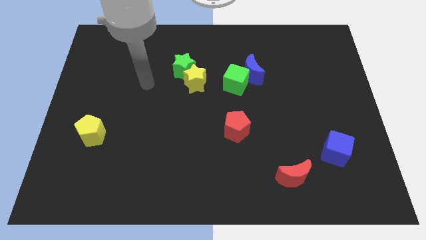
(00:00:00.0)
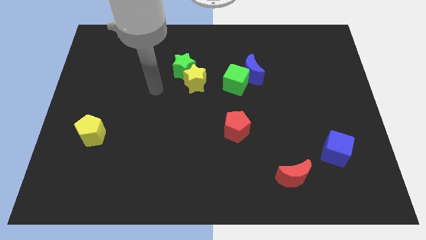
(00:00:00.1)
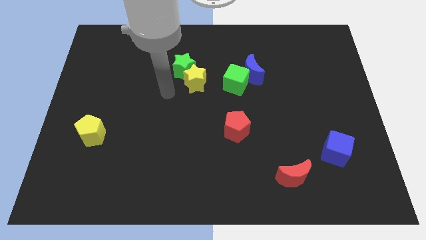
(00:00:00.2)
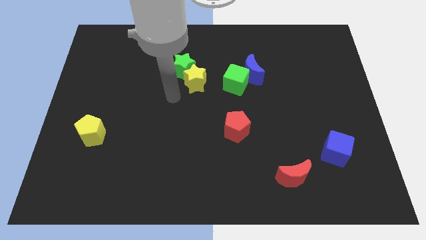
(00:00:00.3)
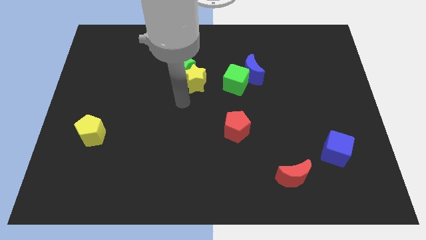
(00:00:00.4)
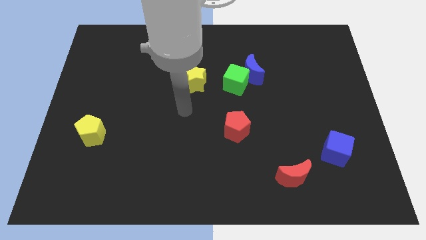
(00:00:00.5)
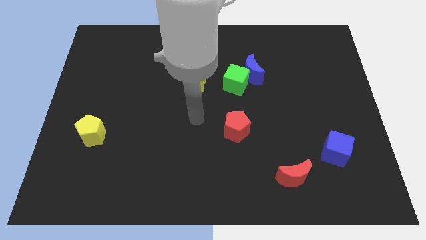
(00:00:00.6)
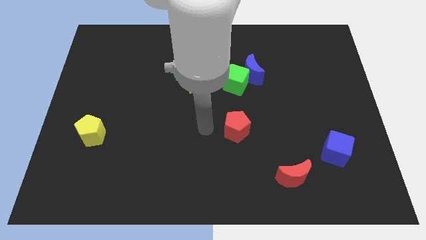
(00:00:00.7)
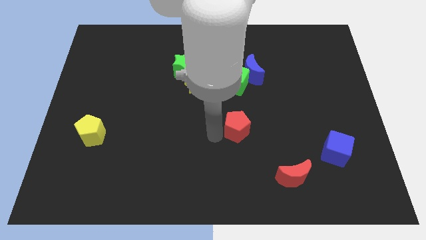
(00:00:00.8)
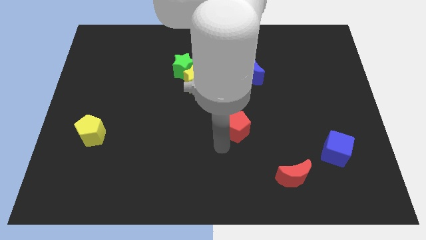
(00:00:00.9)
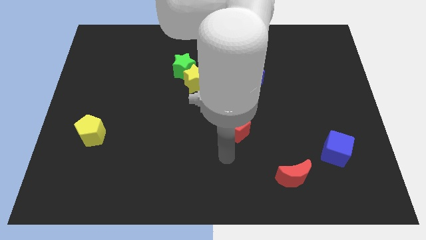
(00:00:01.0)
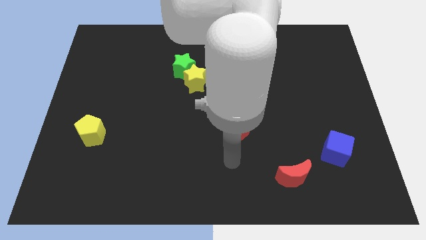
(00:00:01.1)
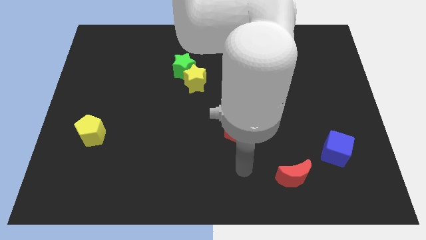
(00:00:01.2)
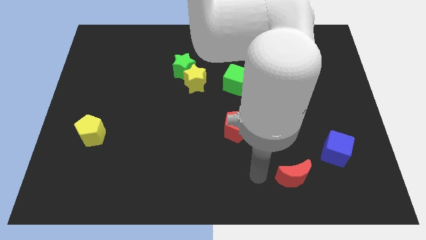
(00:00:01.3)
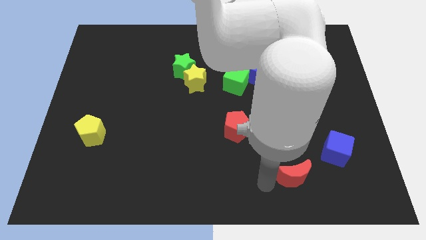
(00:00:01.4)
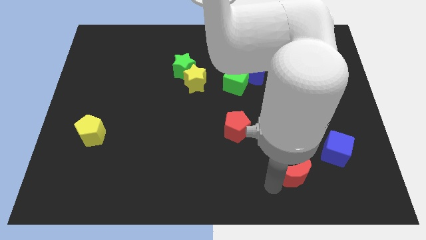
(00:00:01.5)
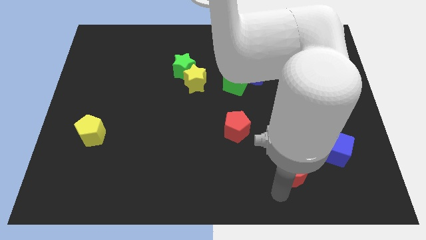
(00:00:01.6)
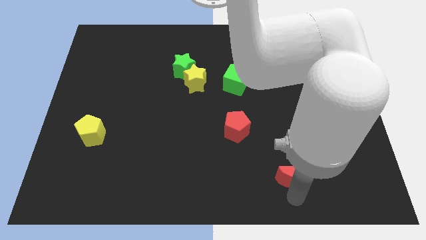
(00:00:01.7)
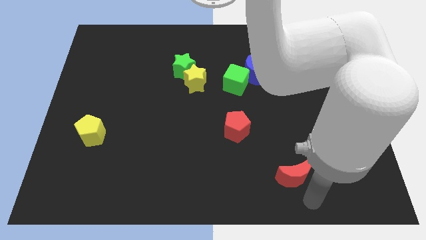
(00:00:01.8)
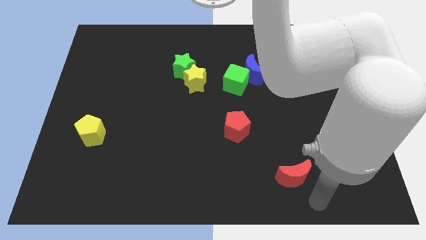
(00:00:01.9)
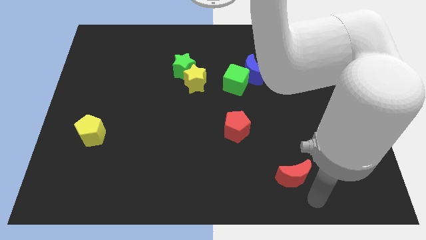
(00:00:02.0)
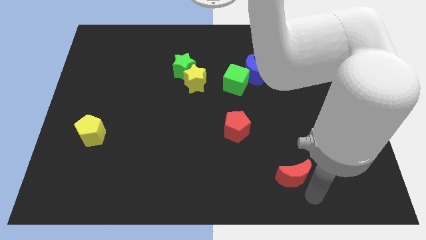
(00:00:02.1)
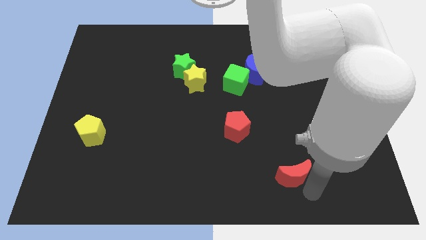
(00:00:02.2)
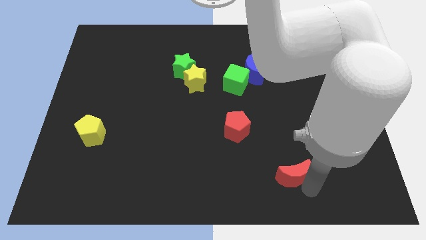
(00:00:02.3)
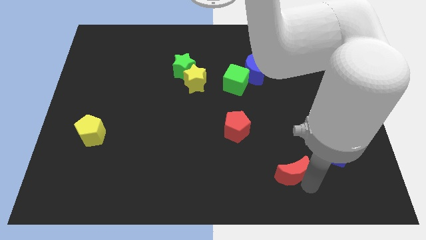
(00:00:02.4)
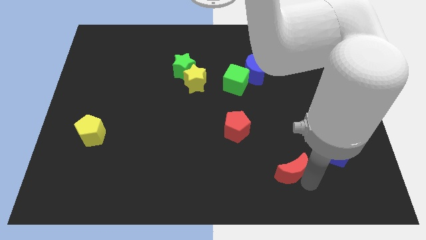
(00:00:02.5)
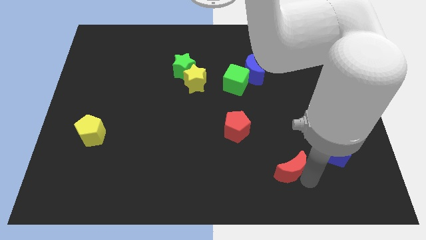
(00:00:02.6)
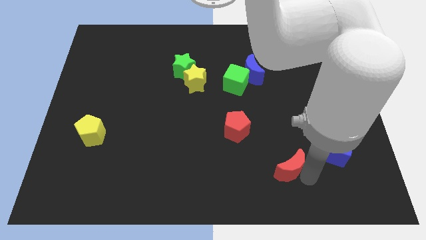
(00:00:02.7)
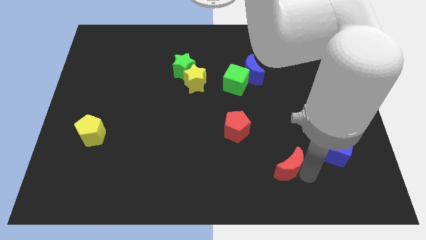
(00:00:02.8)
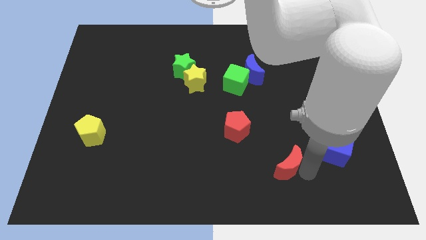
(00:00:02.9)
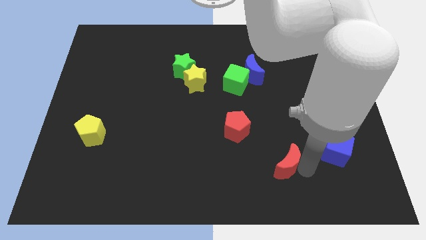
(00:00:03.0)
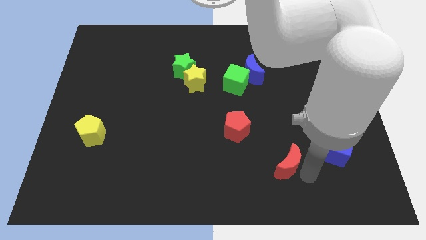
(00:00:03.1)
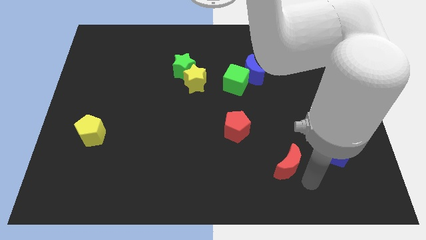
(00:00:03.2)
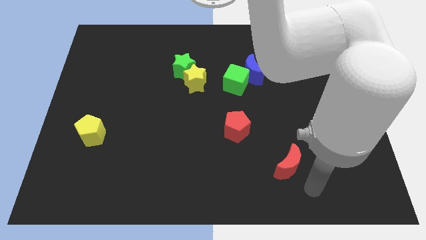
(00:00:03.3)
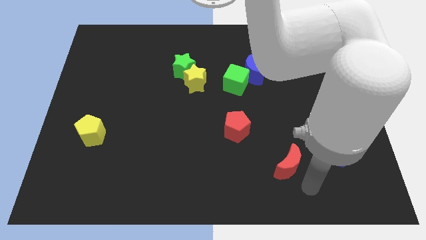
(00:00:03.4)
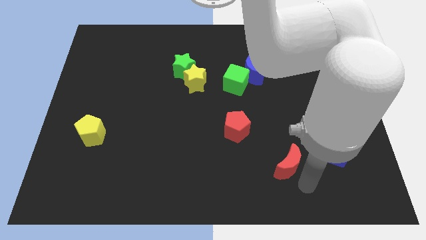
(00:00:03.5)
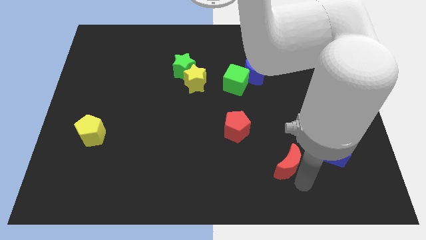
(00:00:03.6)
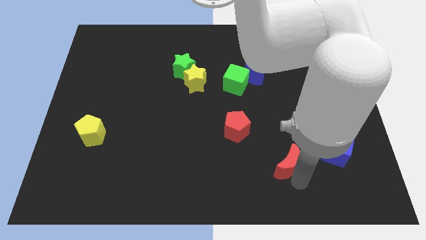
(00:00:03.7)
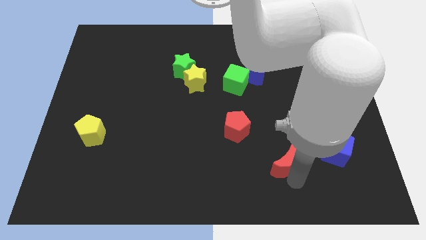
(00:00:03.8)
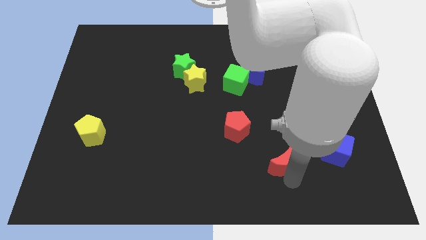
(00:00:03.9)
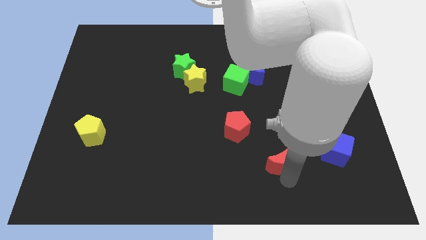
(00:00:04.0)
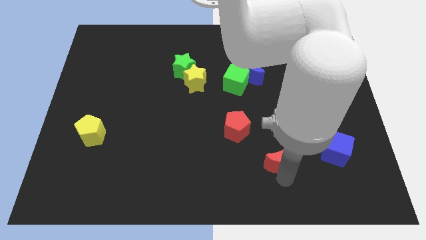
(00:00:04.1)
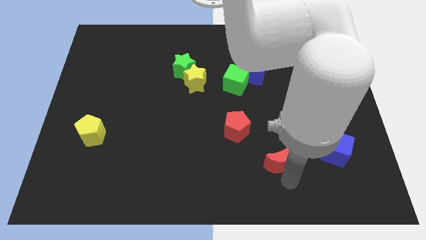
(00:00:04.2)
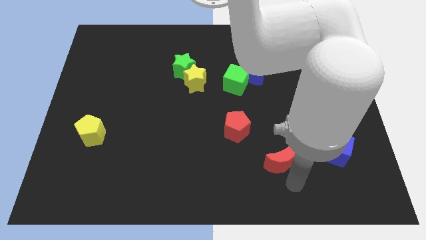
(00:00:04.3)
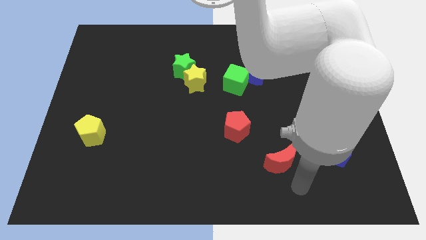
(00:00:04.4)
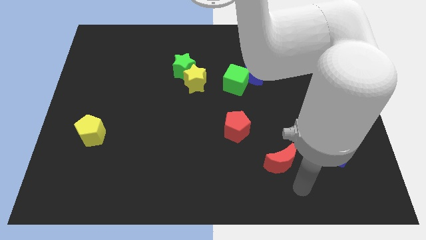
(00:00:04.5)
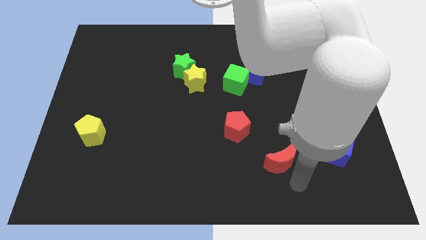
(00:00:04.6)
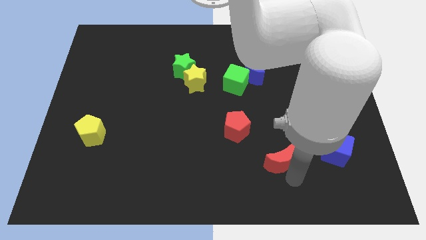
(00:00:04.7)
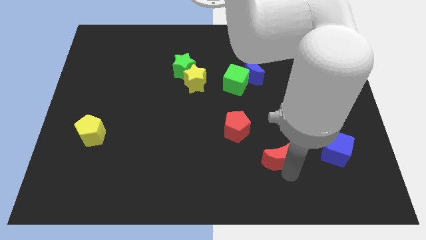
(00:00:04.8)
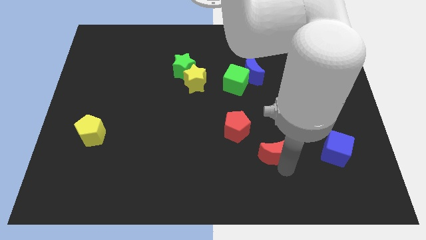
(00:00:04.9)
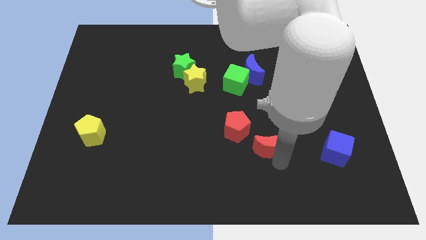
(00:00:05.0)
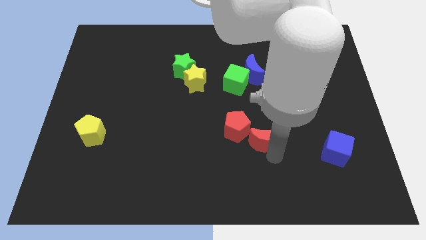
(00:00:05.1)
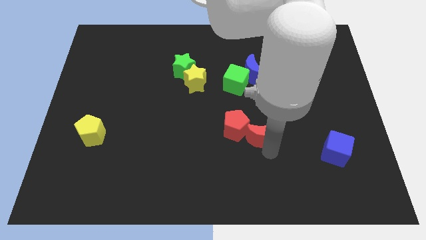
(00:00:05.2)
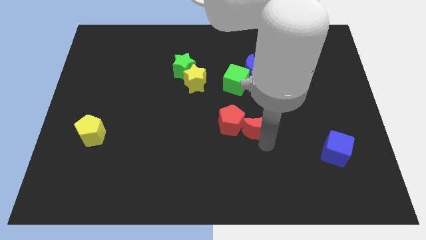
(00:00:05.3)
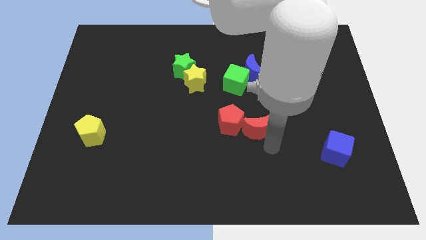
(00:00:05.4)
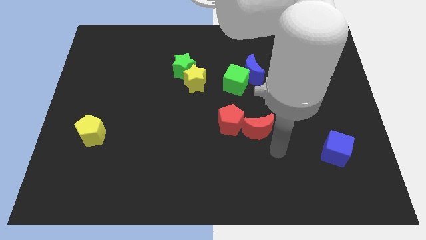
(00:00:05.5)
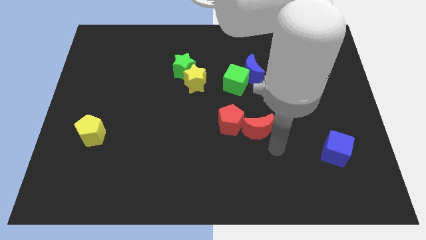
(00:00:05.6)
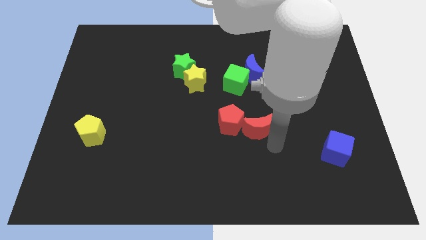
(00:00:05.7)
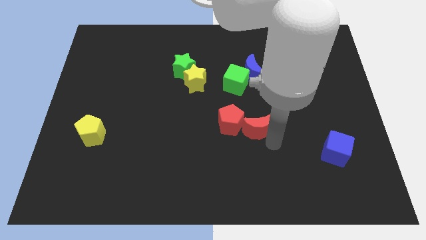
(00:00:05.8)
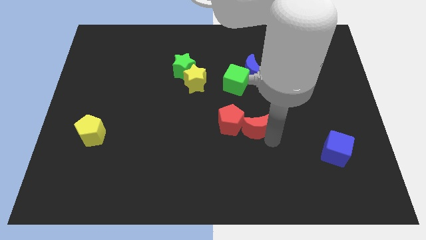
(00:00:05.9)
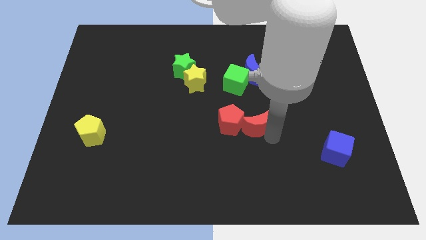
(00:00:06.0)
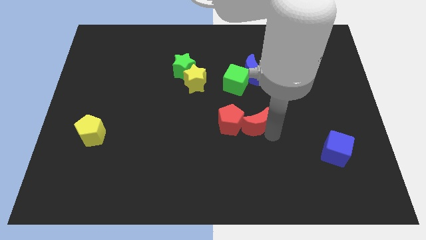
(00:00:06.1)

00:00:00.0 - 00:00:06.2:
put the red moon to the center of the board

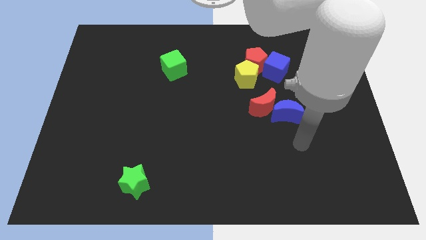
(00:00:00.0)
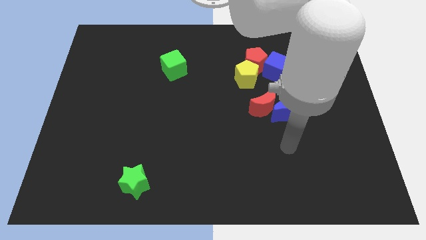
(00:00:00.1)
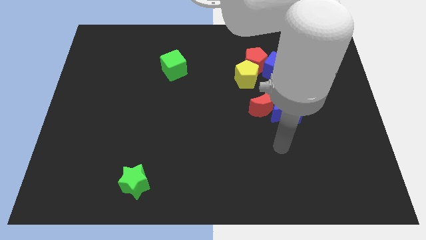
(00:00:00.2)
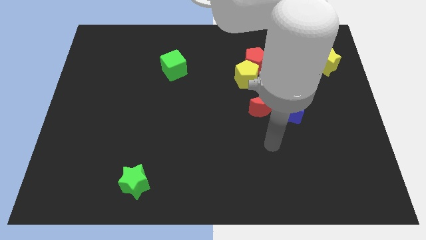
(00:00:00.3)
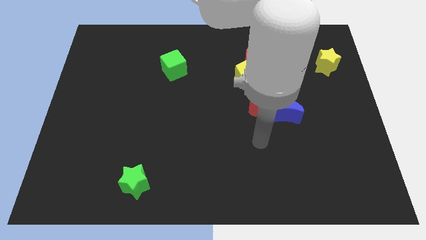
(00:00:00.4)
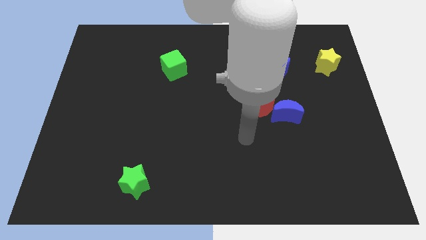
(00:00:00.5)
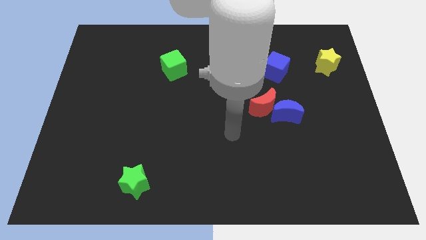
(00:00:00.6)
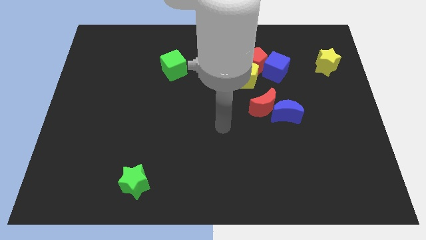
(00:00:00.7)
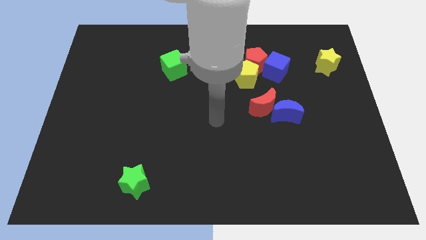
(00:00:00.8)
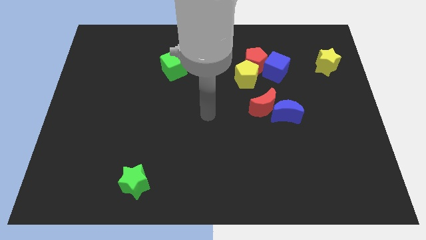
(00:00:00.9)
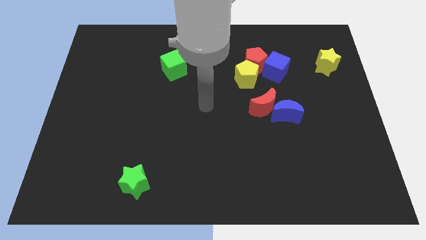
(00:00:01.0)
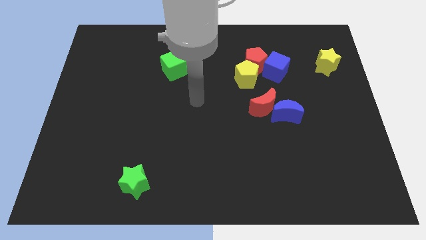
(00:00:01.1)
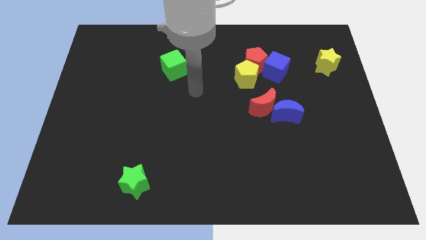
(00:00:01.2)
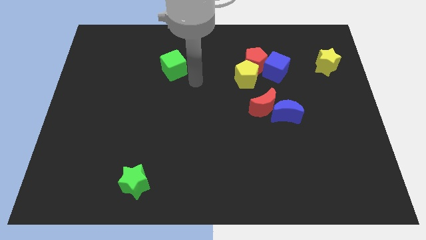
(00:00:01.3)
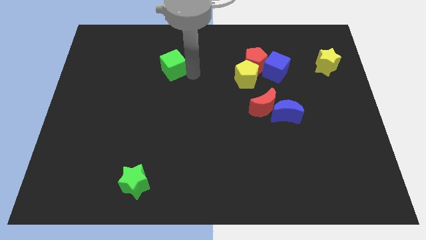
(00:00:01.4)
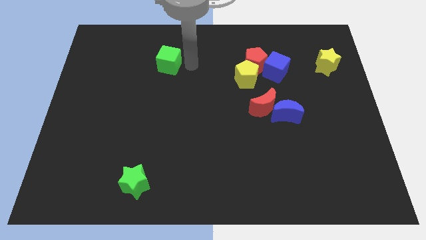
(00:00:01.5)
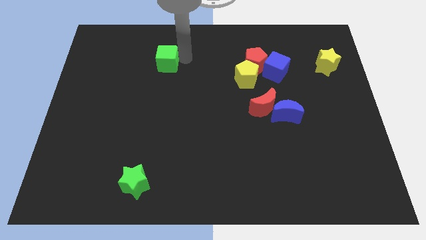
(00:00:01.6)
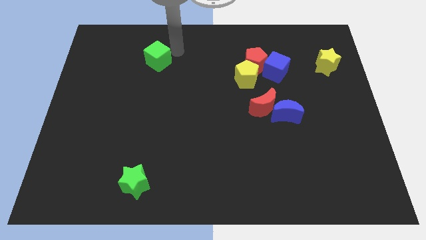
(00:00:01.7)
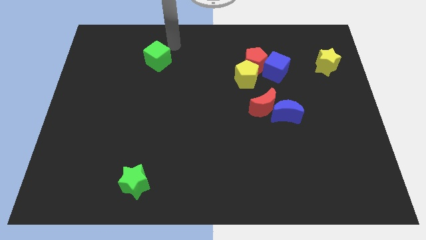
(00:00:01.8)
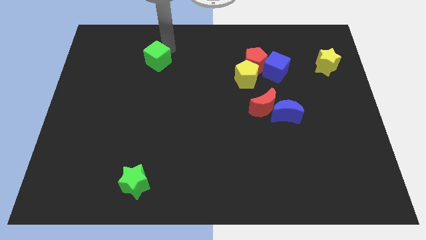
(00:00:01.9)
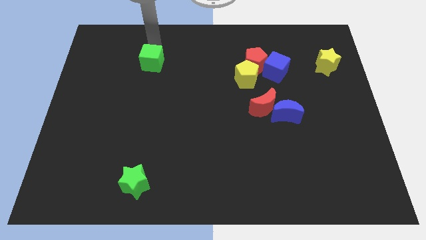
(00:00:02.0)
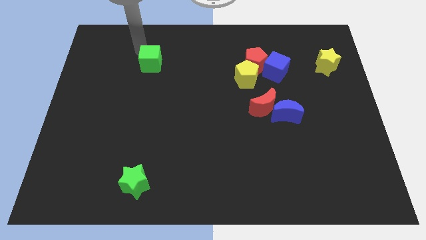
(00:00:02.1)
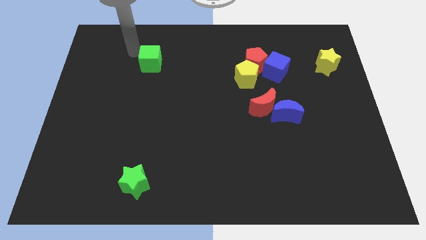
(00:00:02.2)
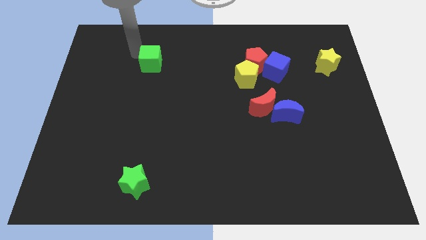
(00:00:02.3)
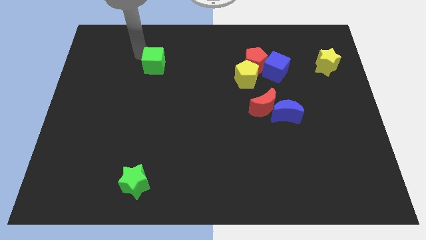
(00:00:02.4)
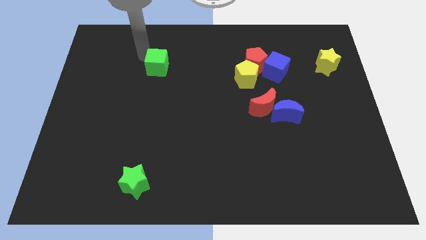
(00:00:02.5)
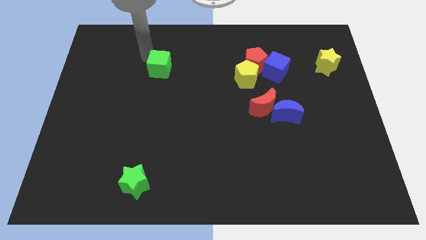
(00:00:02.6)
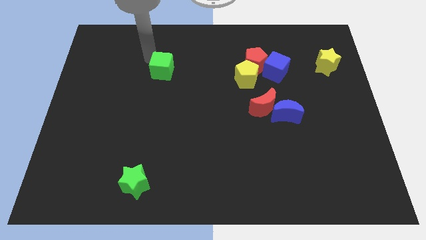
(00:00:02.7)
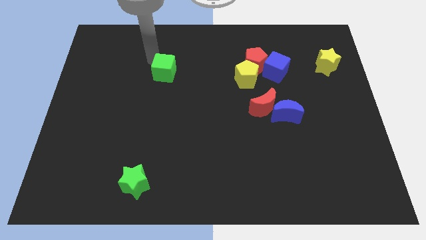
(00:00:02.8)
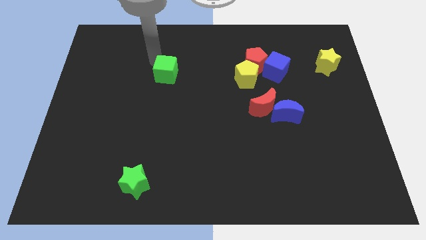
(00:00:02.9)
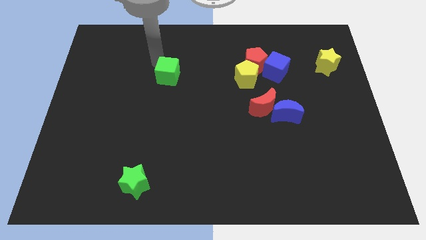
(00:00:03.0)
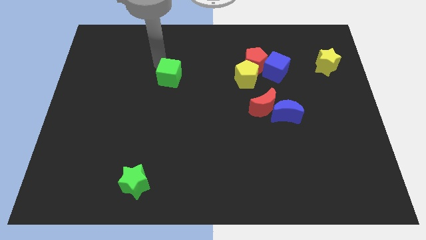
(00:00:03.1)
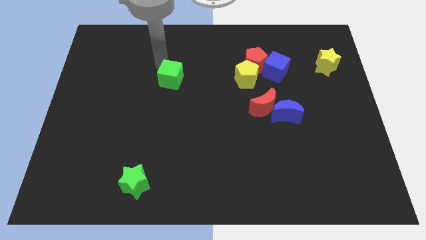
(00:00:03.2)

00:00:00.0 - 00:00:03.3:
move the green cube to the middle of the board
